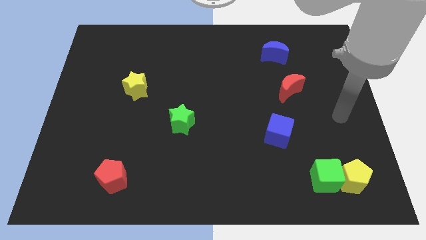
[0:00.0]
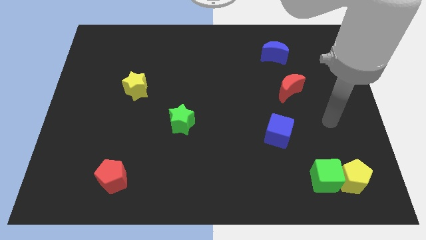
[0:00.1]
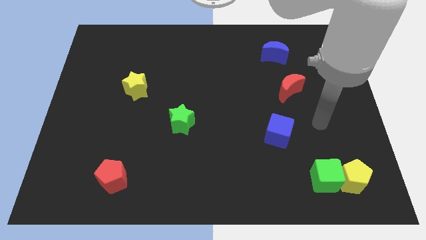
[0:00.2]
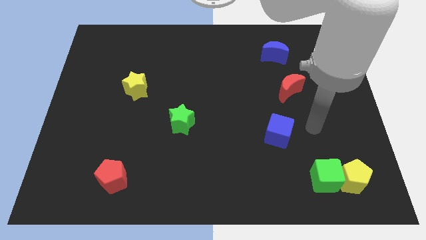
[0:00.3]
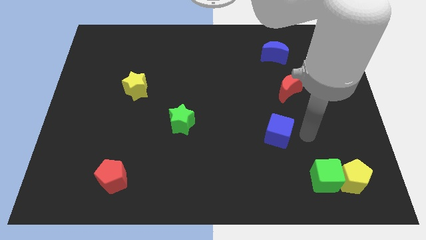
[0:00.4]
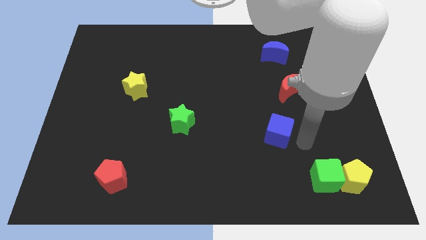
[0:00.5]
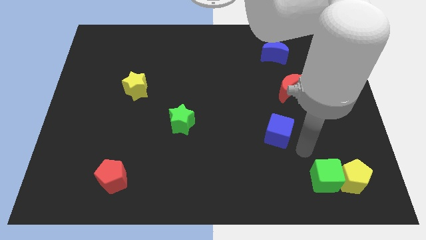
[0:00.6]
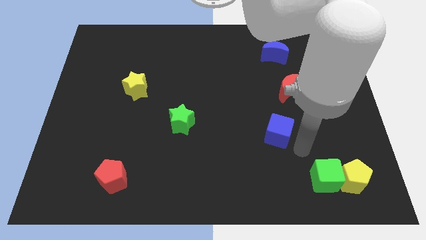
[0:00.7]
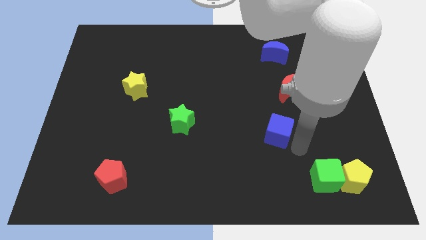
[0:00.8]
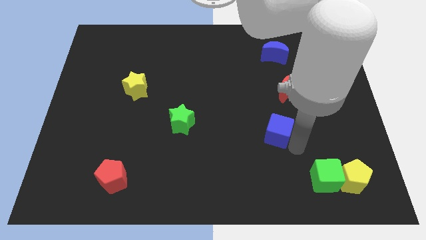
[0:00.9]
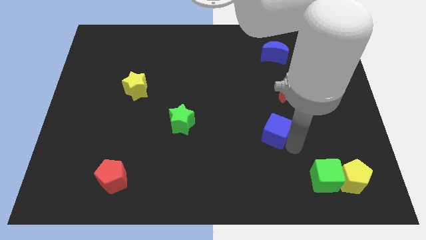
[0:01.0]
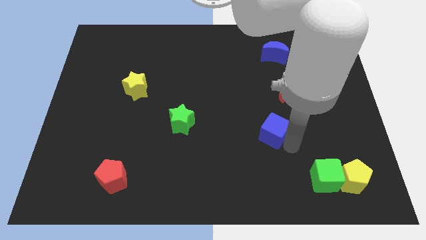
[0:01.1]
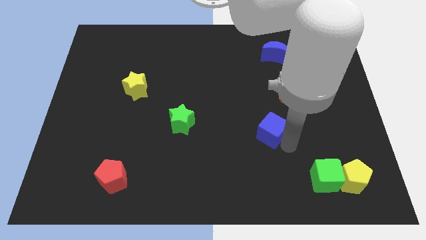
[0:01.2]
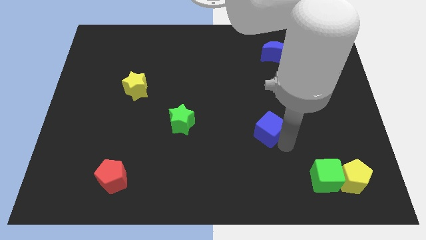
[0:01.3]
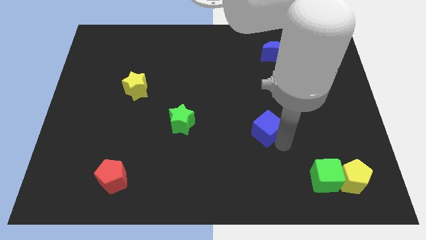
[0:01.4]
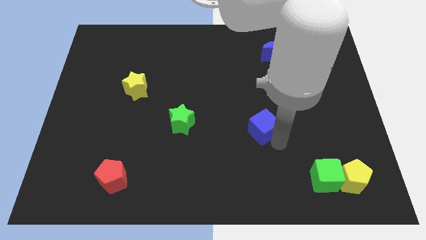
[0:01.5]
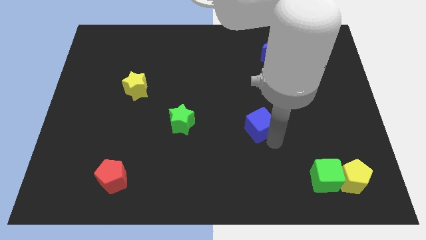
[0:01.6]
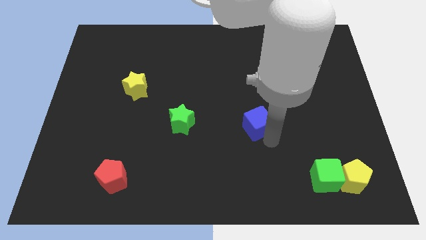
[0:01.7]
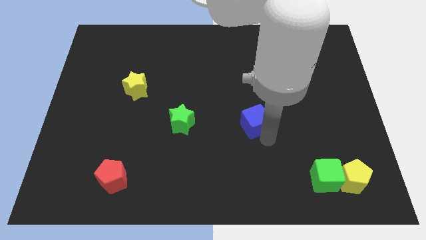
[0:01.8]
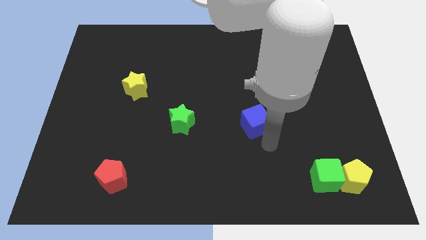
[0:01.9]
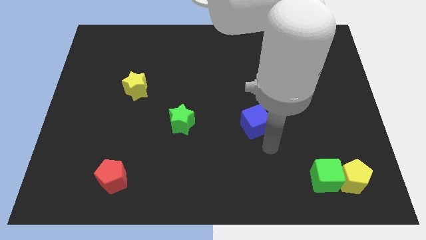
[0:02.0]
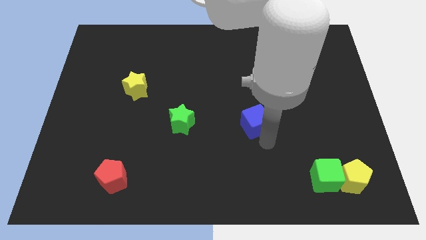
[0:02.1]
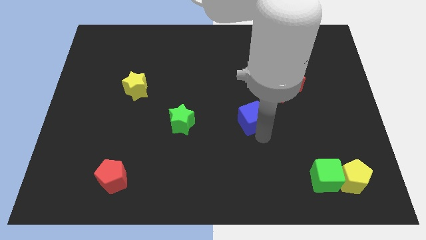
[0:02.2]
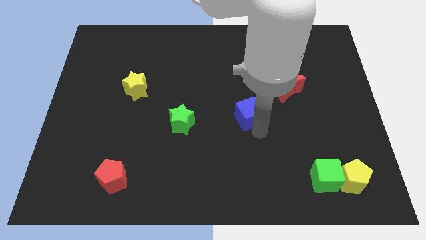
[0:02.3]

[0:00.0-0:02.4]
slightly push the blue cube up and to the left

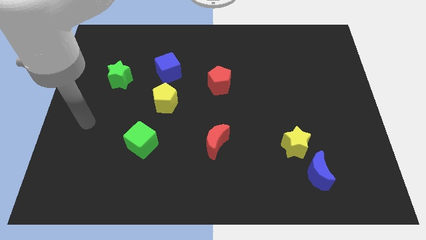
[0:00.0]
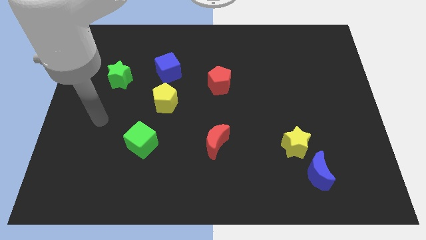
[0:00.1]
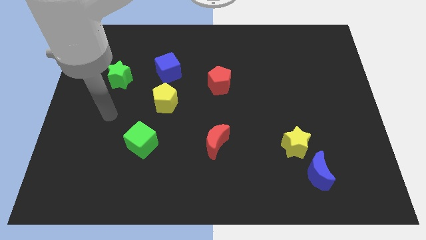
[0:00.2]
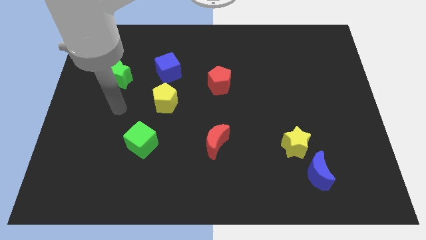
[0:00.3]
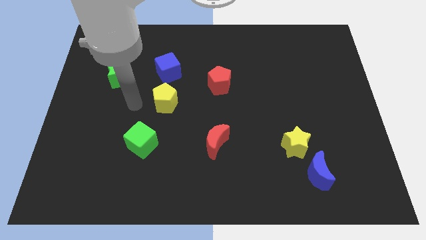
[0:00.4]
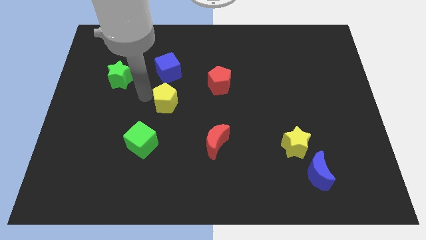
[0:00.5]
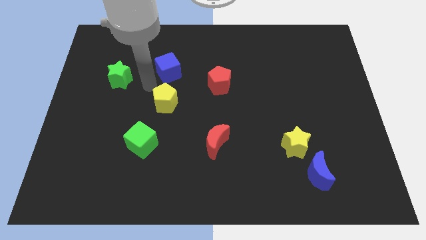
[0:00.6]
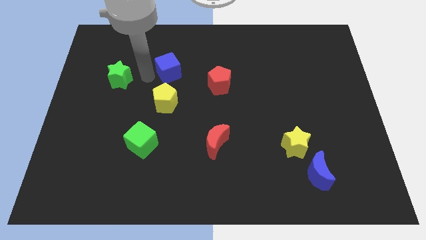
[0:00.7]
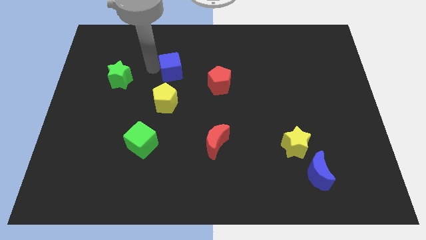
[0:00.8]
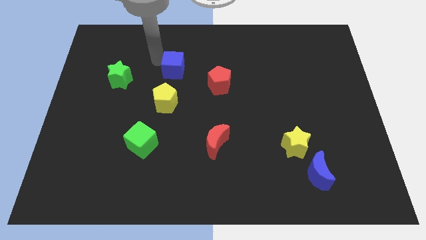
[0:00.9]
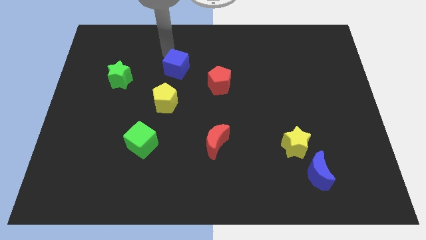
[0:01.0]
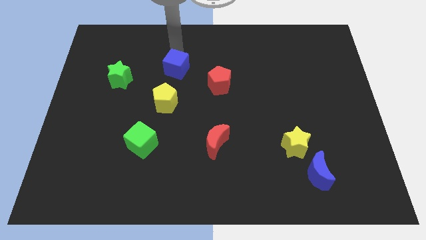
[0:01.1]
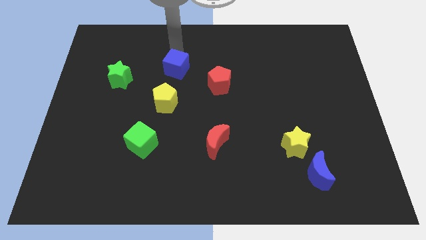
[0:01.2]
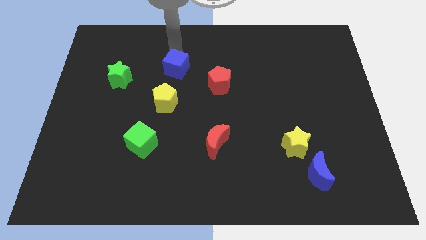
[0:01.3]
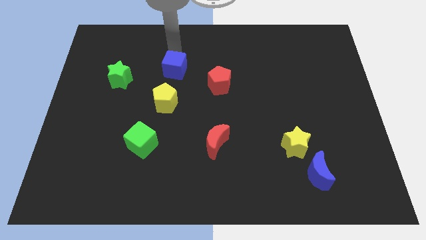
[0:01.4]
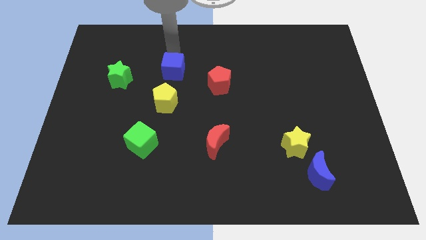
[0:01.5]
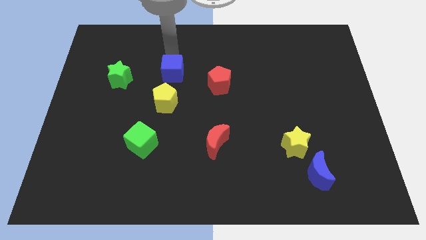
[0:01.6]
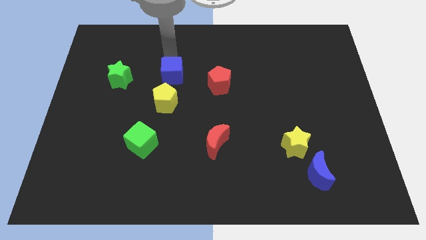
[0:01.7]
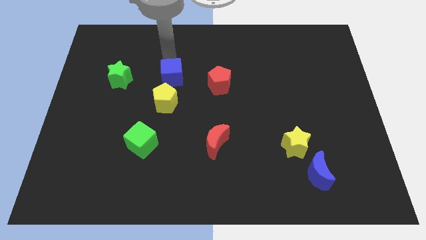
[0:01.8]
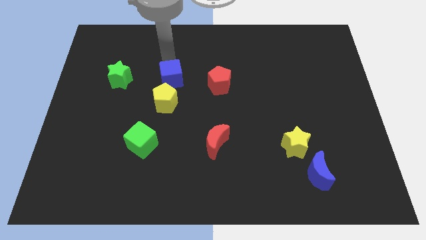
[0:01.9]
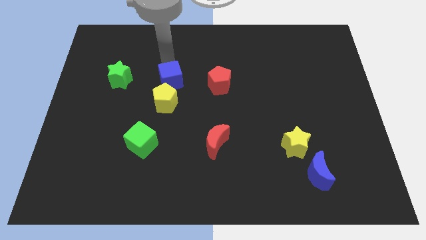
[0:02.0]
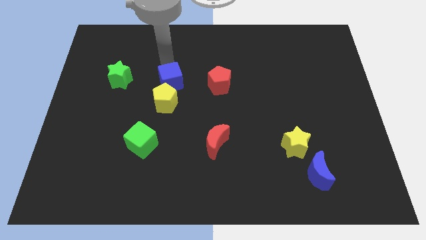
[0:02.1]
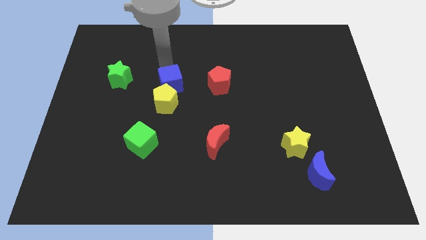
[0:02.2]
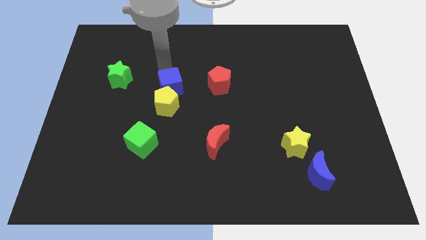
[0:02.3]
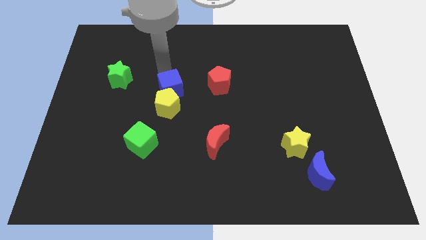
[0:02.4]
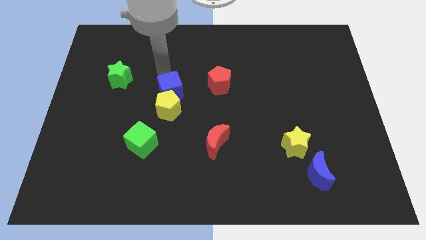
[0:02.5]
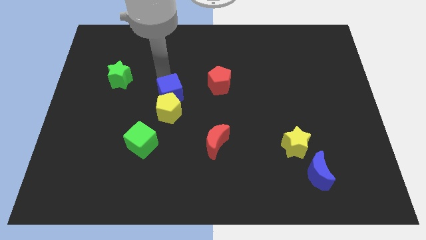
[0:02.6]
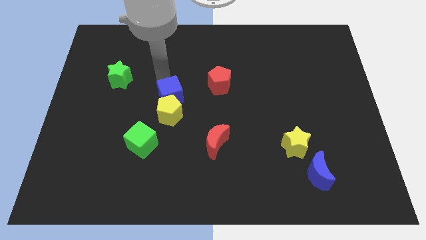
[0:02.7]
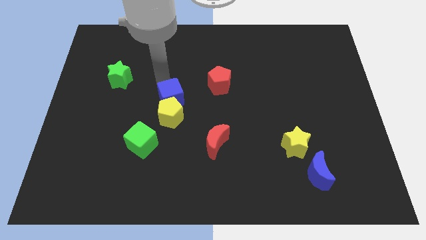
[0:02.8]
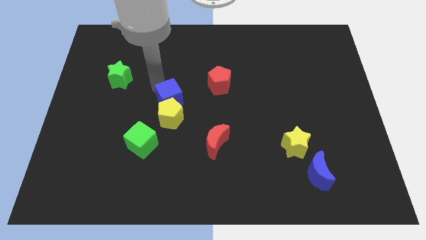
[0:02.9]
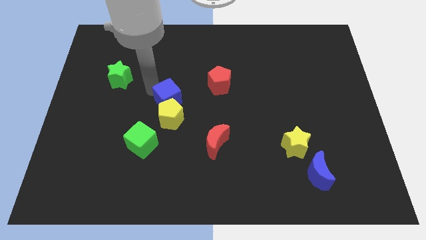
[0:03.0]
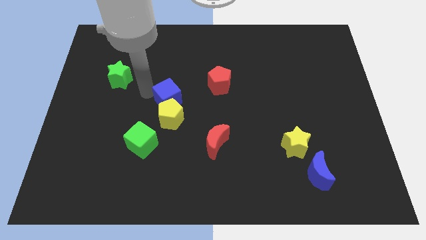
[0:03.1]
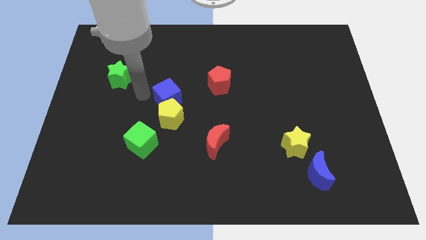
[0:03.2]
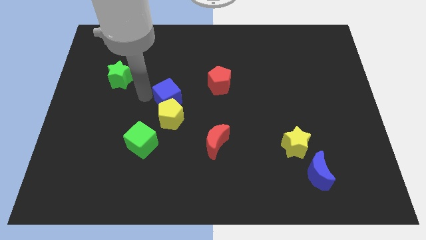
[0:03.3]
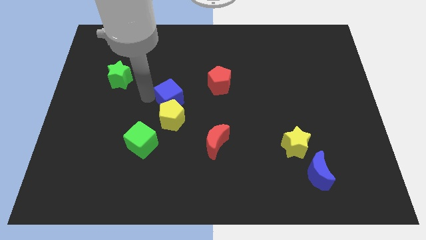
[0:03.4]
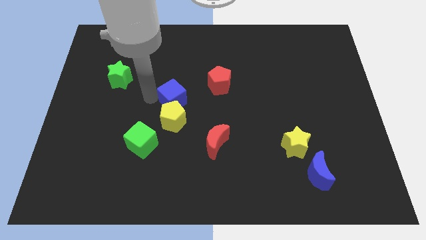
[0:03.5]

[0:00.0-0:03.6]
slide the blue cube diagonally downwards and right slightly

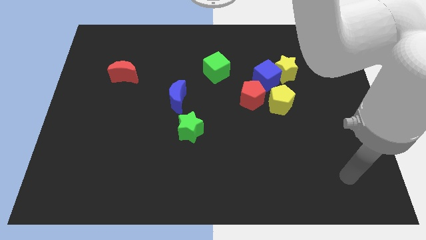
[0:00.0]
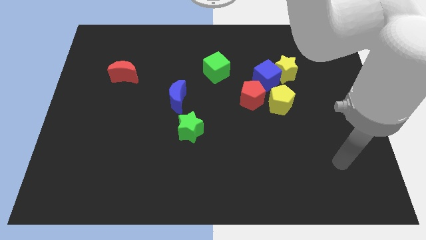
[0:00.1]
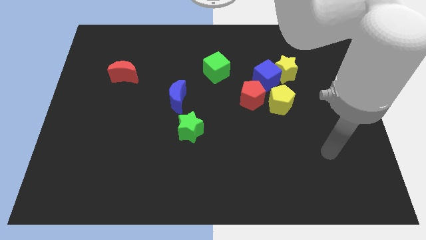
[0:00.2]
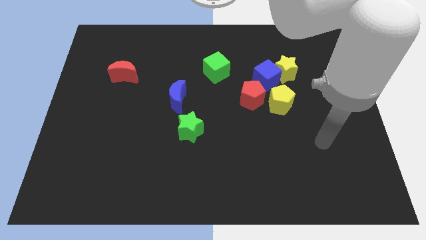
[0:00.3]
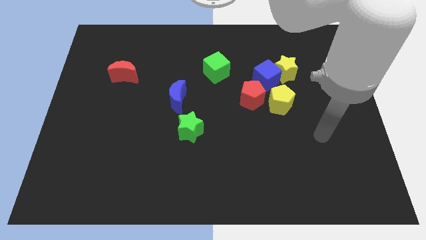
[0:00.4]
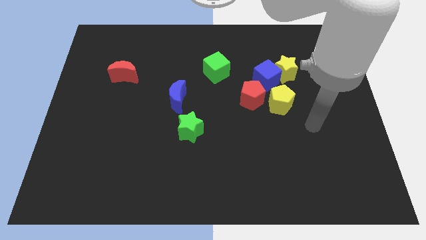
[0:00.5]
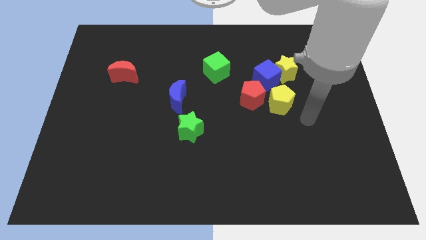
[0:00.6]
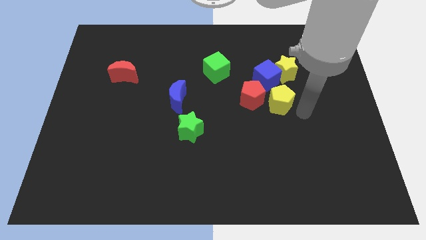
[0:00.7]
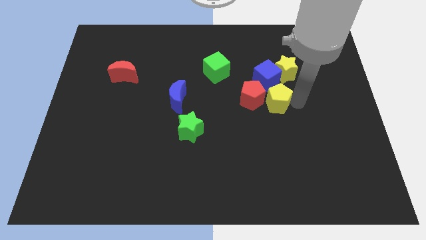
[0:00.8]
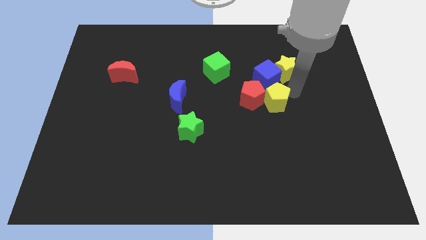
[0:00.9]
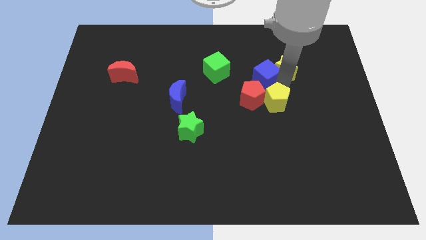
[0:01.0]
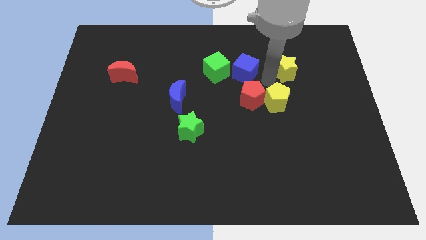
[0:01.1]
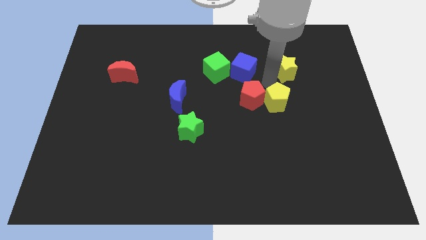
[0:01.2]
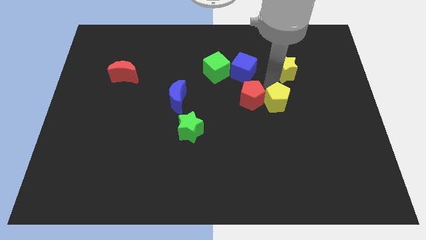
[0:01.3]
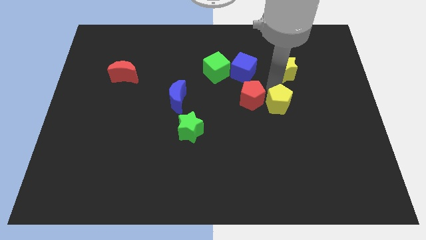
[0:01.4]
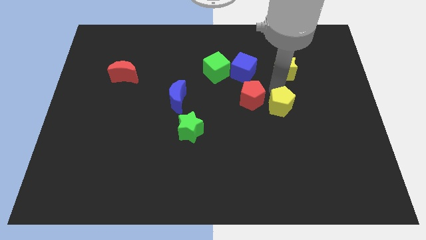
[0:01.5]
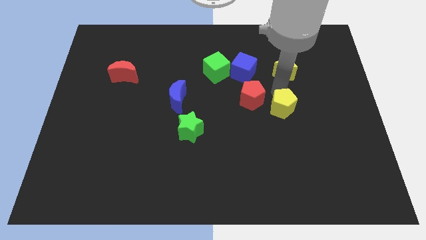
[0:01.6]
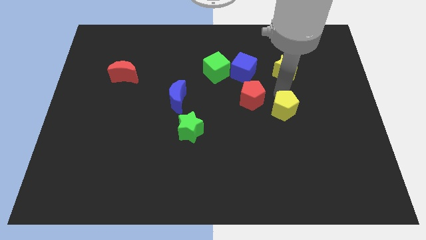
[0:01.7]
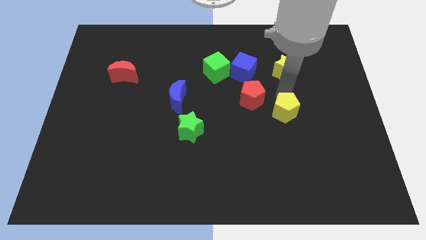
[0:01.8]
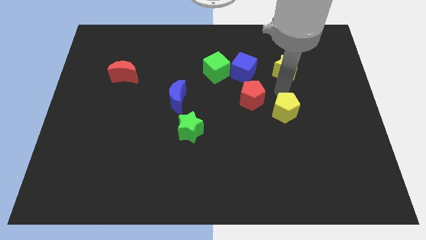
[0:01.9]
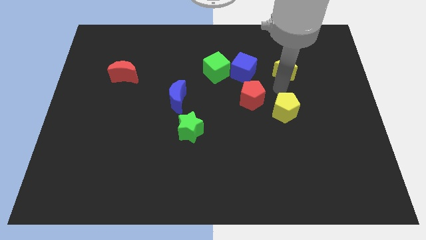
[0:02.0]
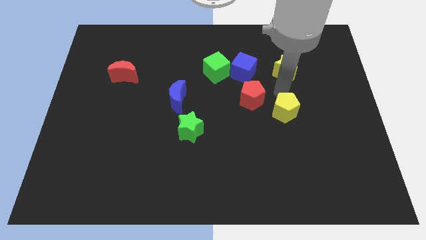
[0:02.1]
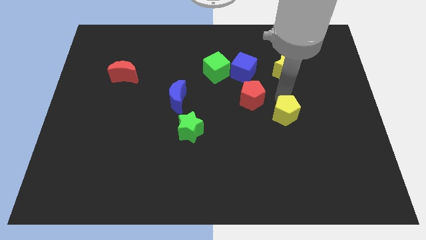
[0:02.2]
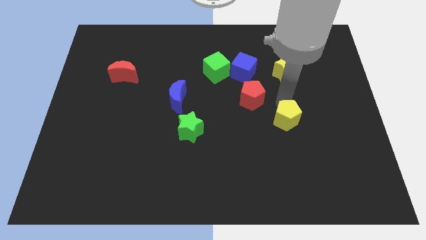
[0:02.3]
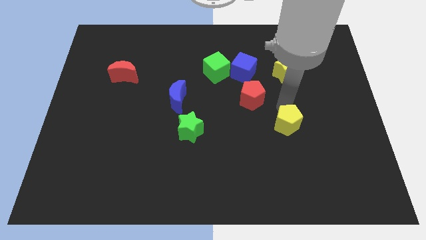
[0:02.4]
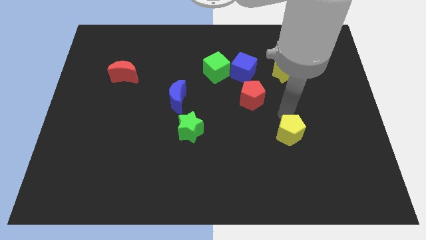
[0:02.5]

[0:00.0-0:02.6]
push the yellow pentagon down a little
